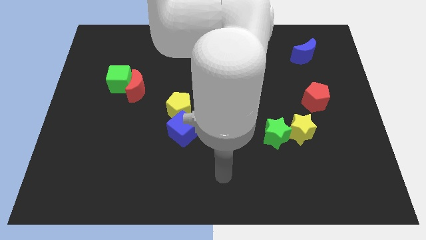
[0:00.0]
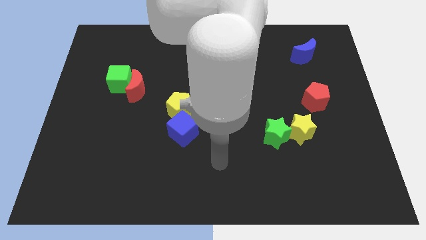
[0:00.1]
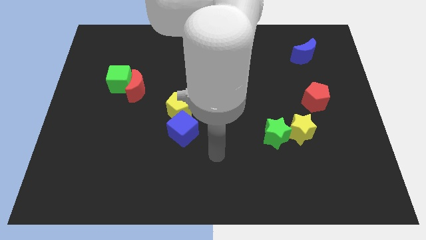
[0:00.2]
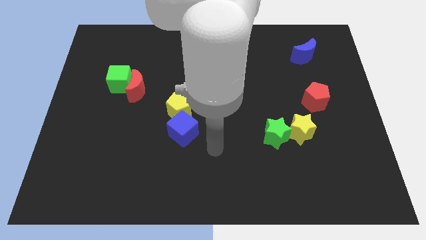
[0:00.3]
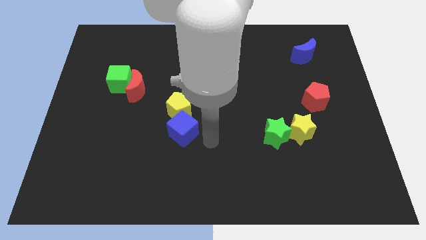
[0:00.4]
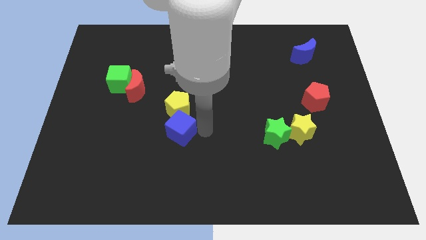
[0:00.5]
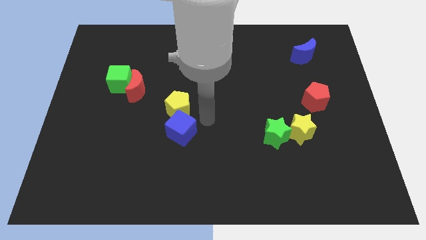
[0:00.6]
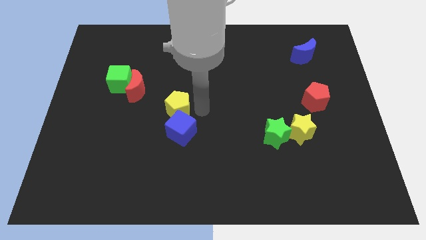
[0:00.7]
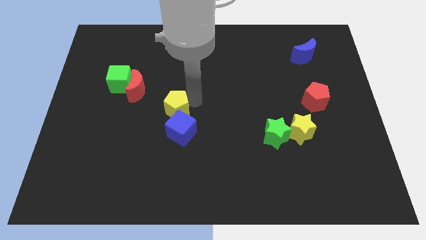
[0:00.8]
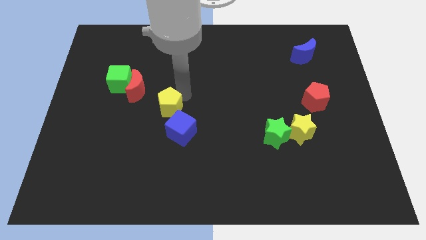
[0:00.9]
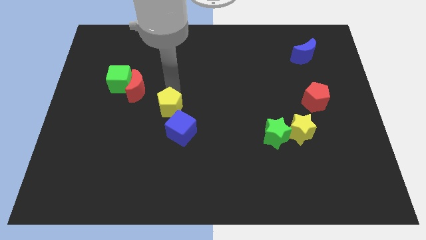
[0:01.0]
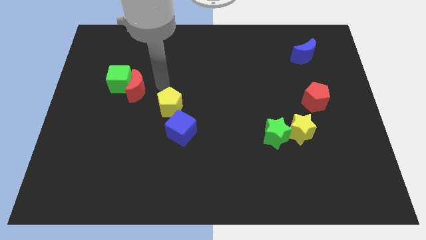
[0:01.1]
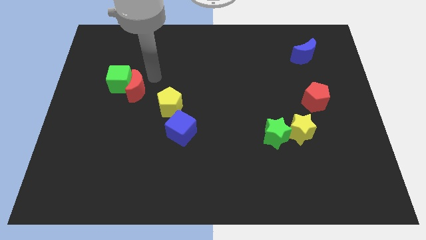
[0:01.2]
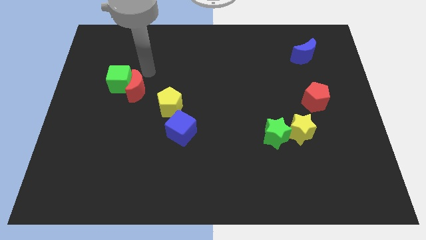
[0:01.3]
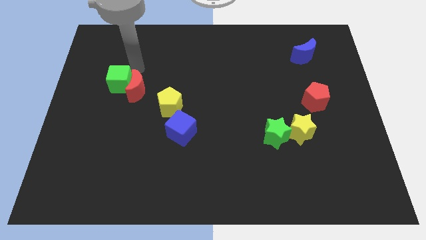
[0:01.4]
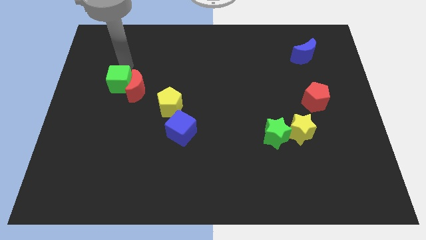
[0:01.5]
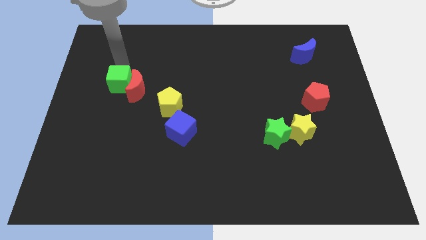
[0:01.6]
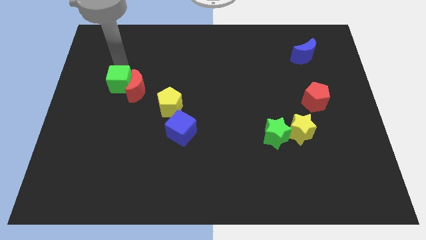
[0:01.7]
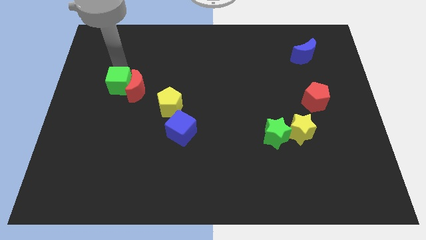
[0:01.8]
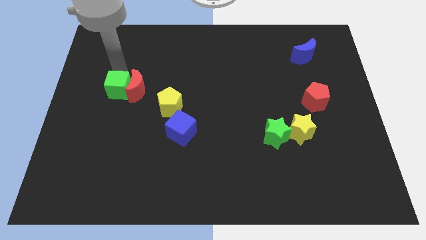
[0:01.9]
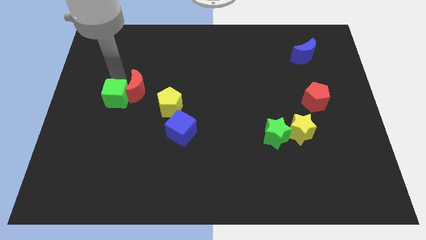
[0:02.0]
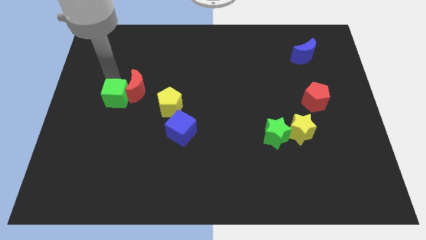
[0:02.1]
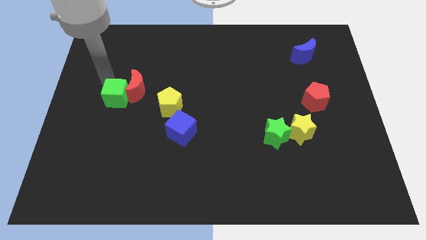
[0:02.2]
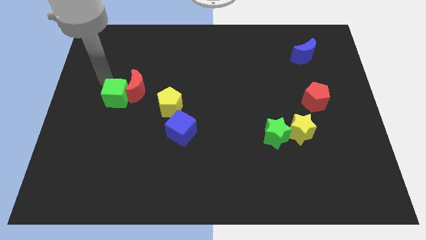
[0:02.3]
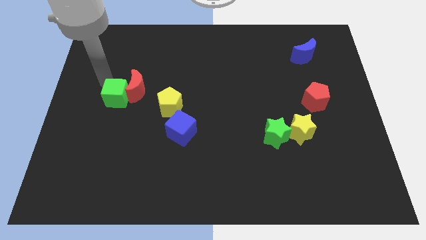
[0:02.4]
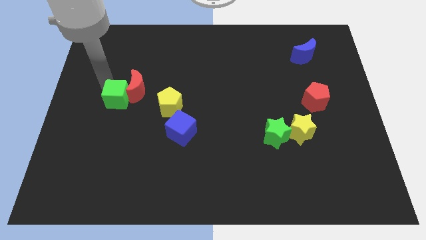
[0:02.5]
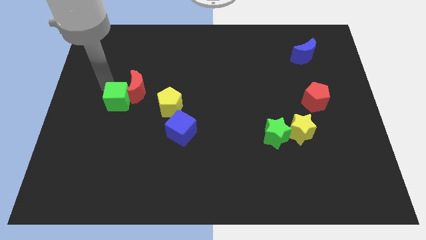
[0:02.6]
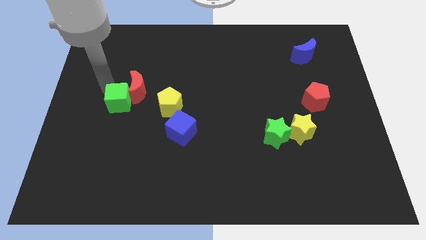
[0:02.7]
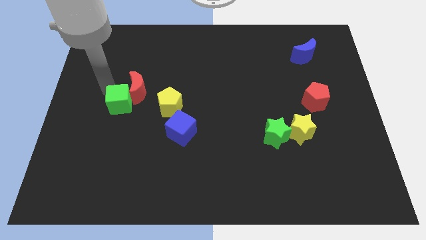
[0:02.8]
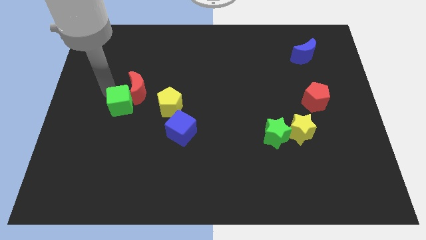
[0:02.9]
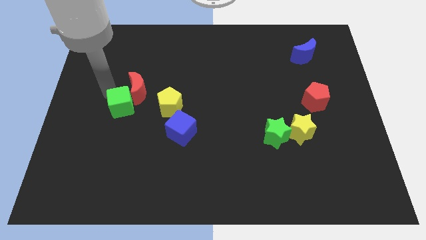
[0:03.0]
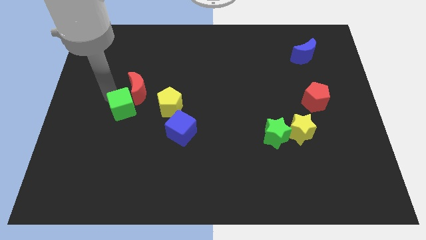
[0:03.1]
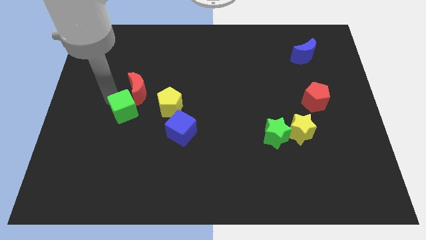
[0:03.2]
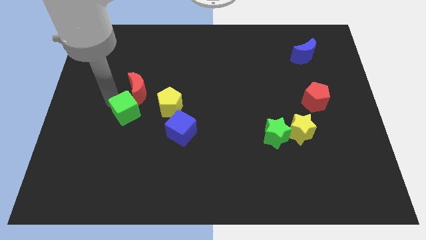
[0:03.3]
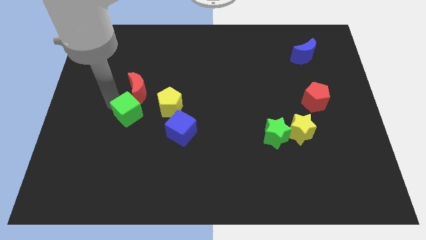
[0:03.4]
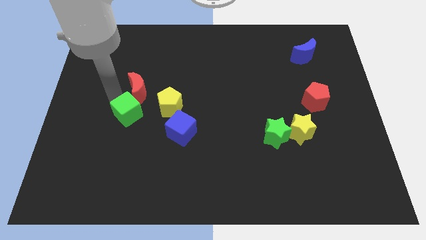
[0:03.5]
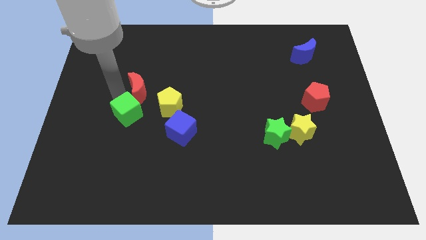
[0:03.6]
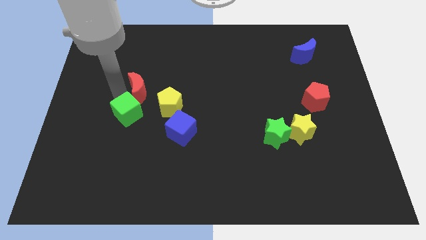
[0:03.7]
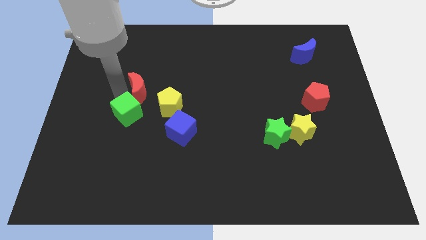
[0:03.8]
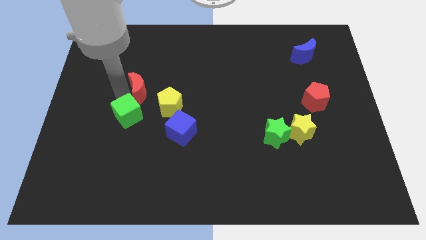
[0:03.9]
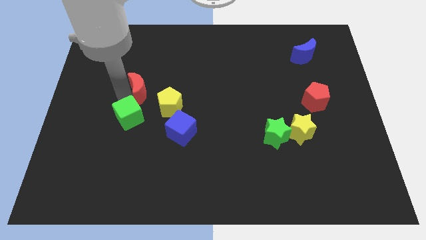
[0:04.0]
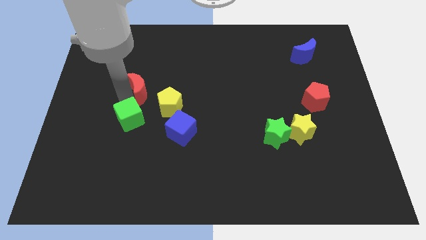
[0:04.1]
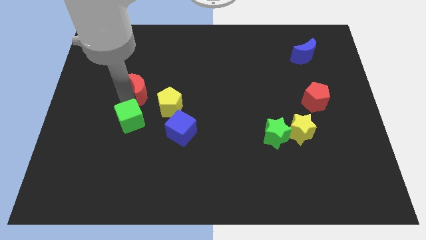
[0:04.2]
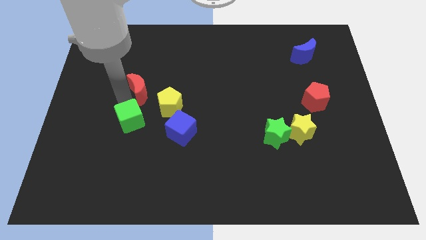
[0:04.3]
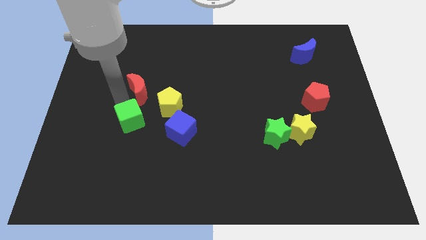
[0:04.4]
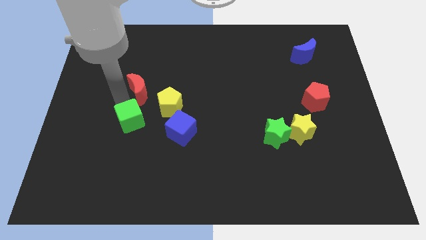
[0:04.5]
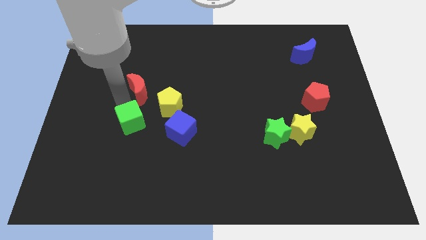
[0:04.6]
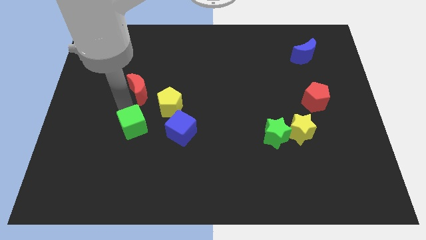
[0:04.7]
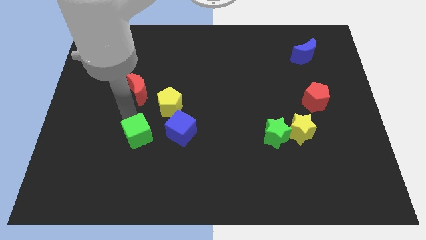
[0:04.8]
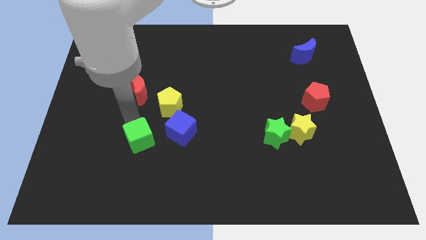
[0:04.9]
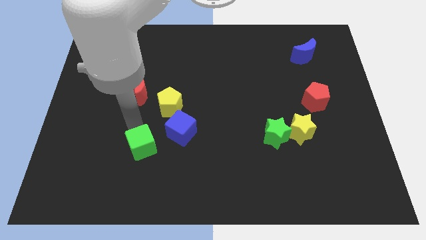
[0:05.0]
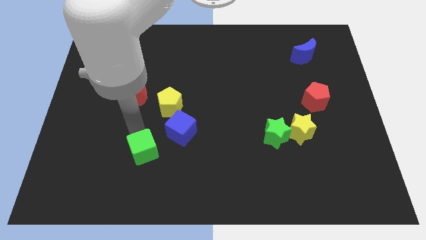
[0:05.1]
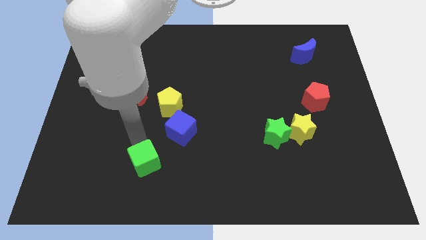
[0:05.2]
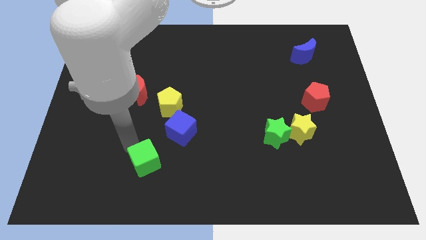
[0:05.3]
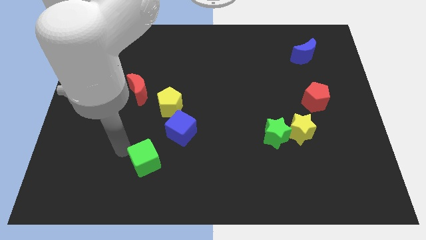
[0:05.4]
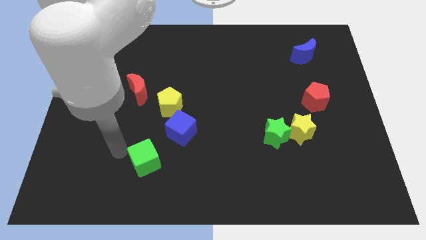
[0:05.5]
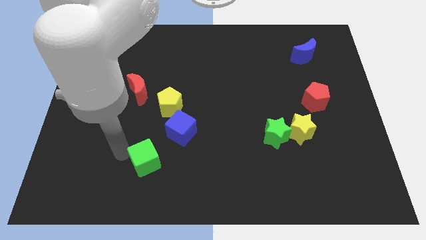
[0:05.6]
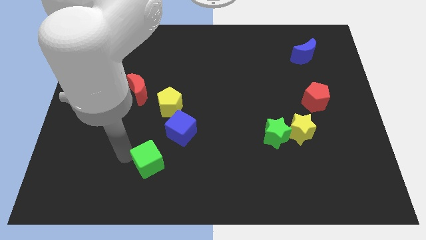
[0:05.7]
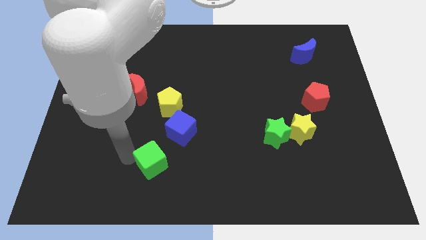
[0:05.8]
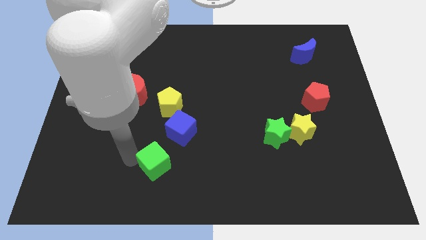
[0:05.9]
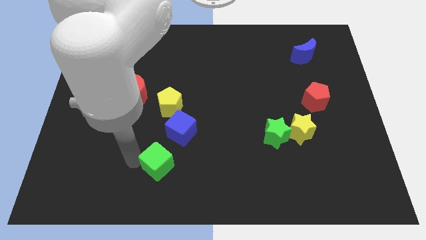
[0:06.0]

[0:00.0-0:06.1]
slide the green cube to the bottom of the blue cube
